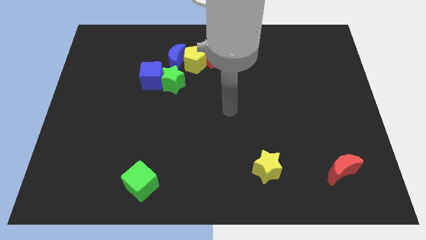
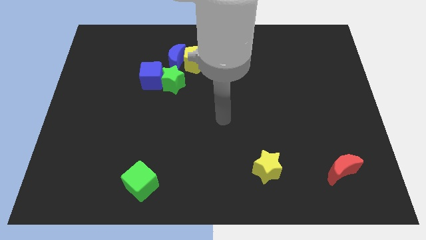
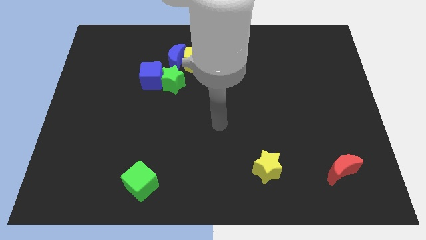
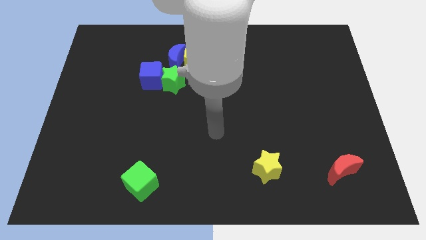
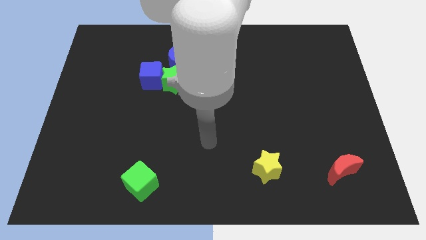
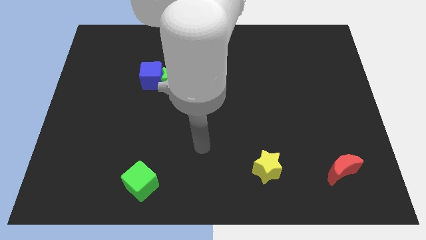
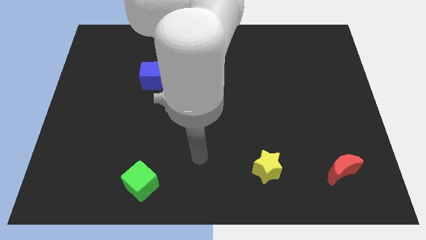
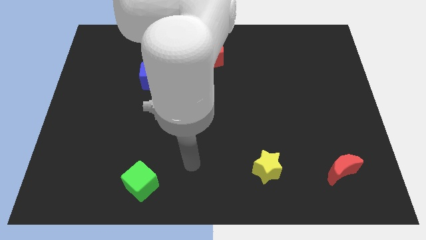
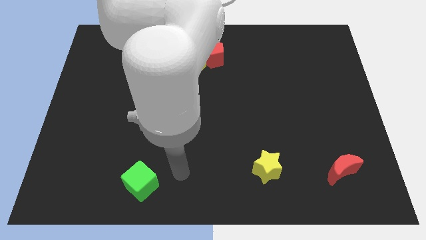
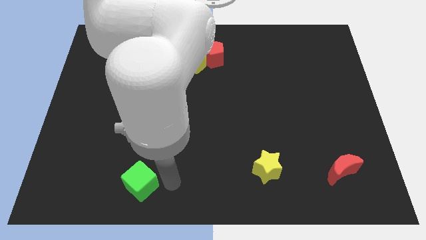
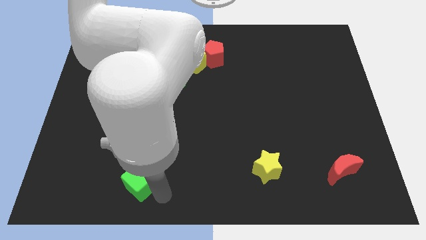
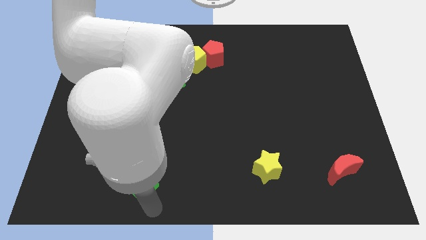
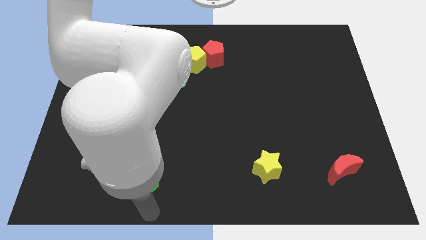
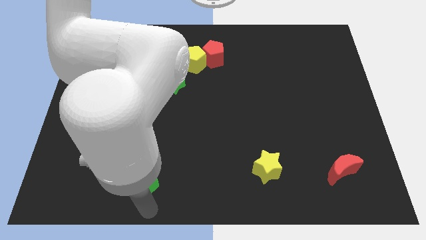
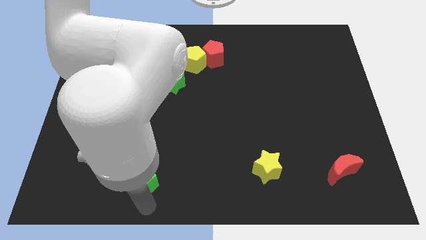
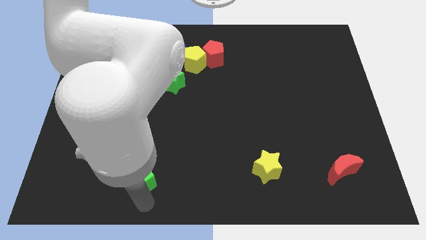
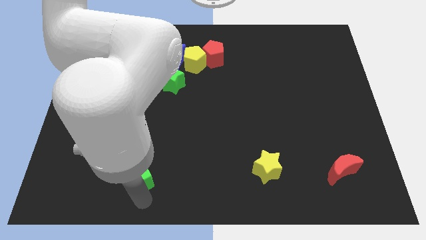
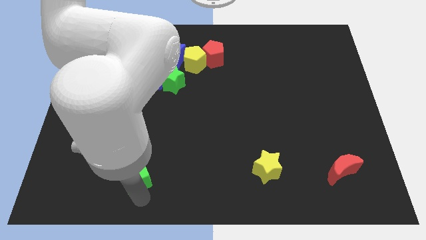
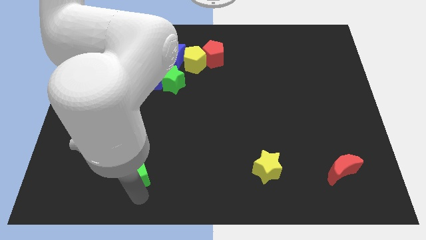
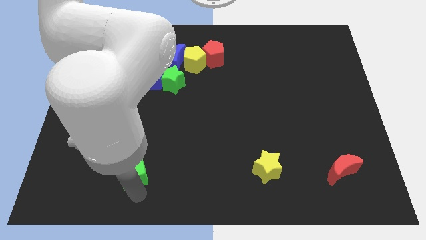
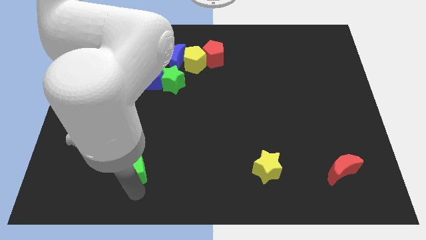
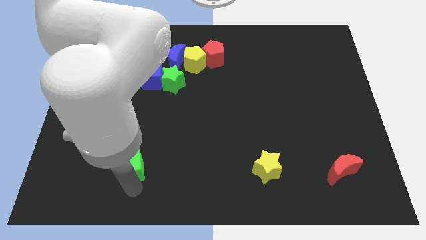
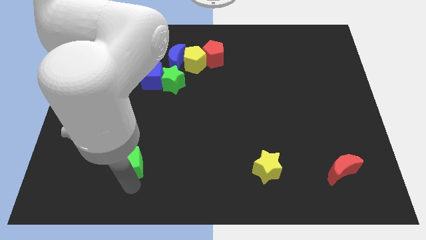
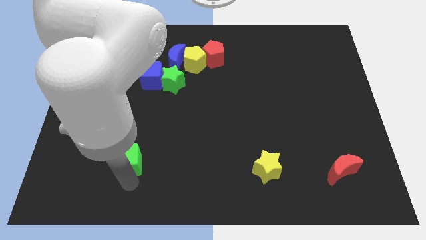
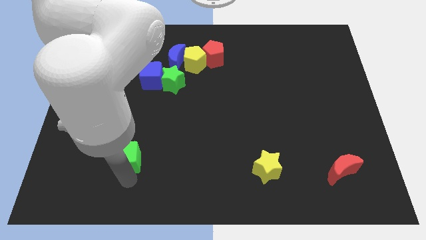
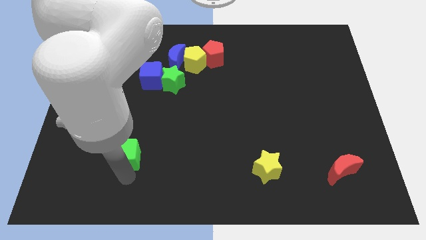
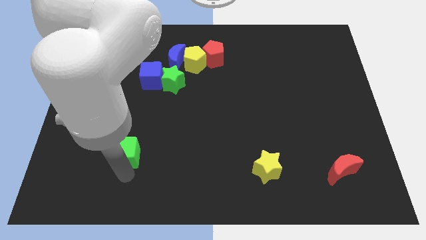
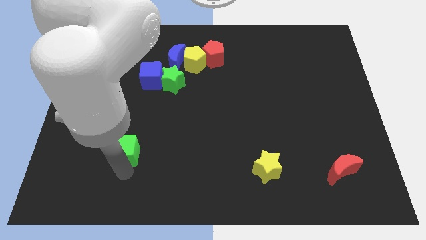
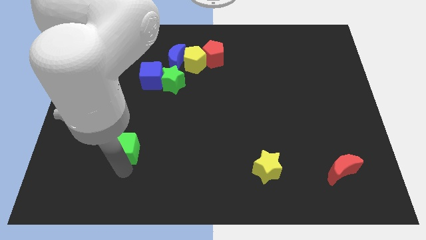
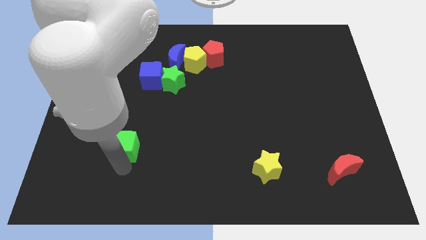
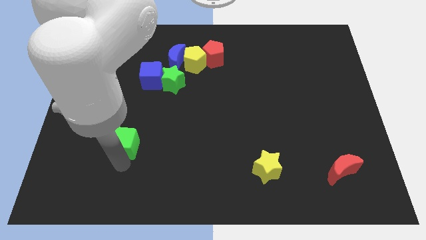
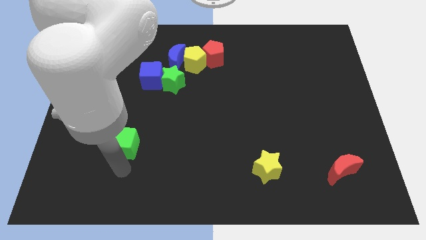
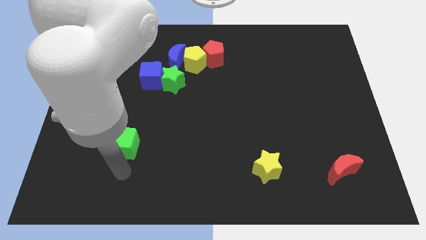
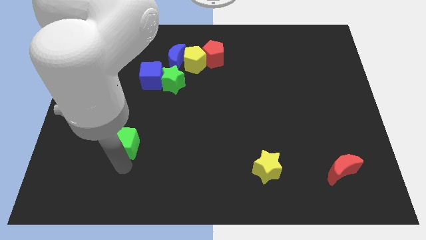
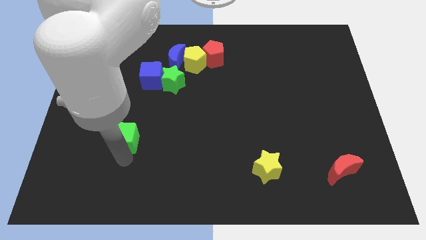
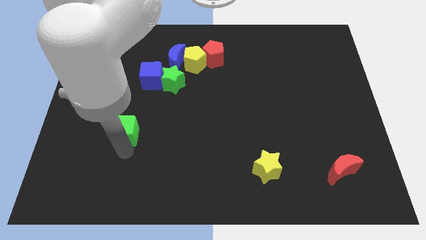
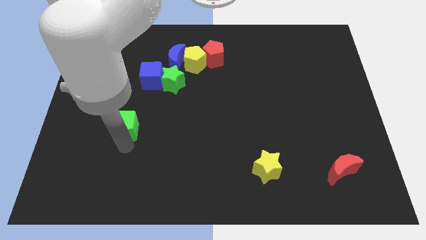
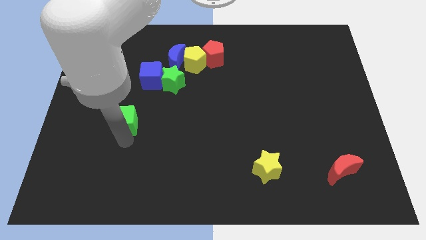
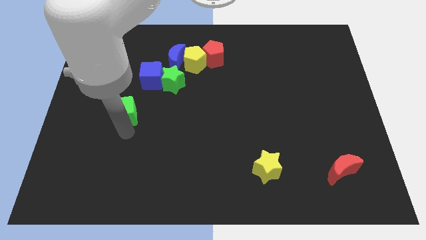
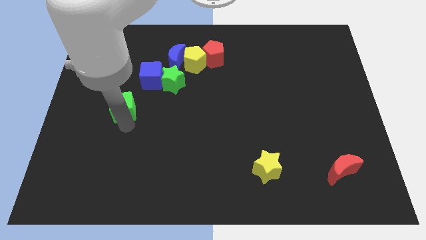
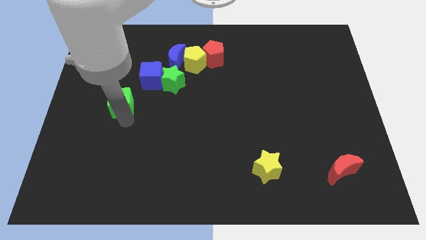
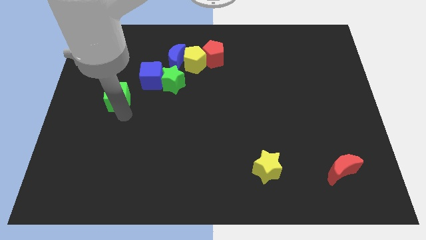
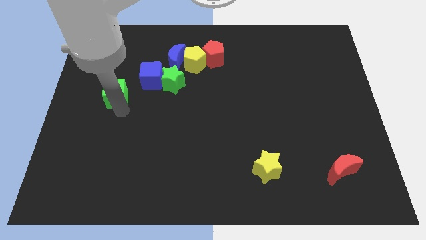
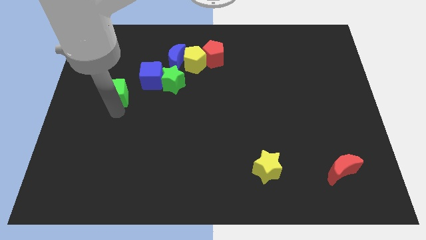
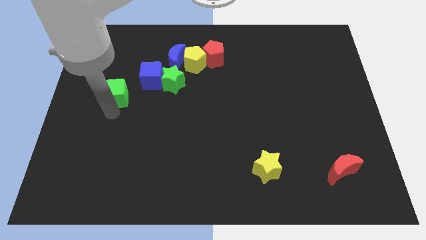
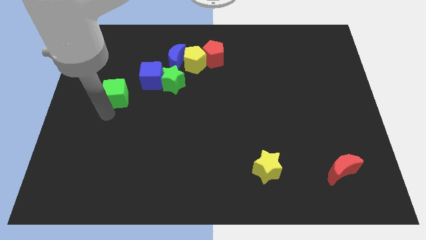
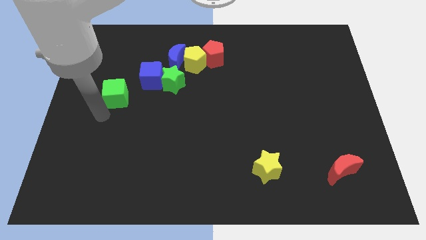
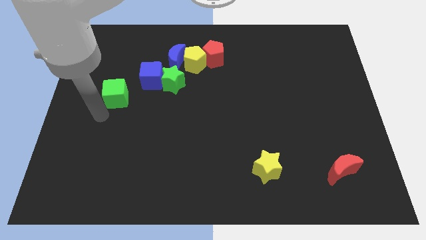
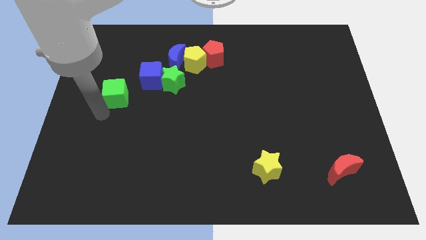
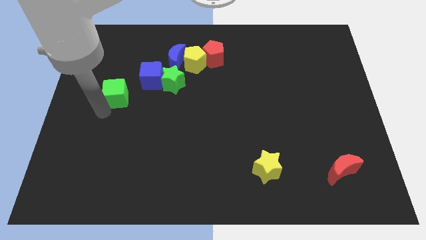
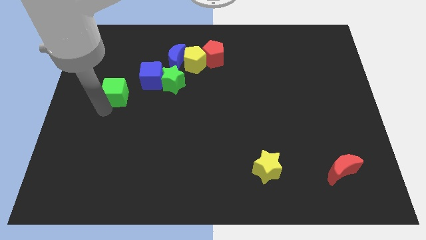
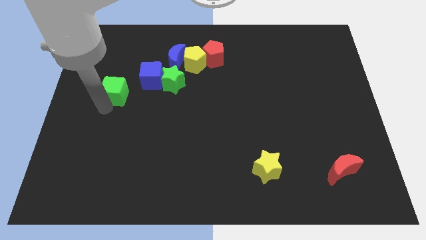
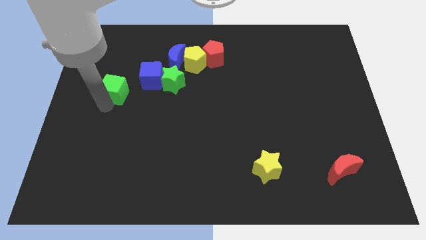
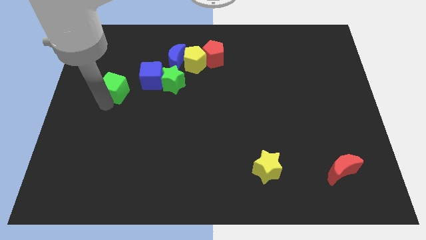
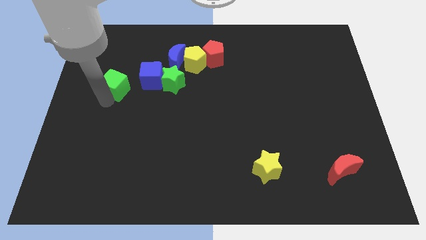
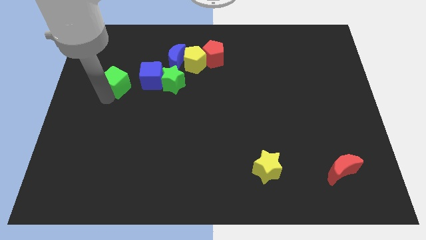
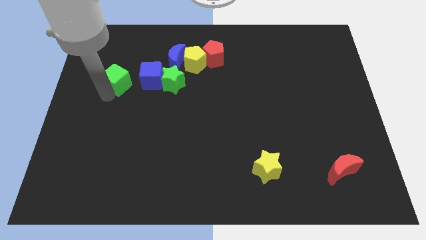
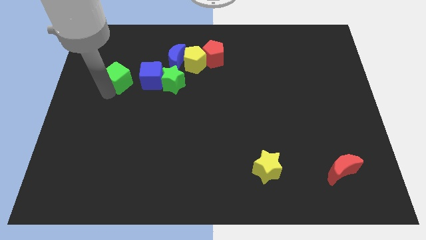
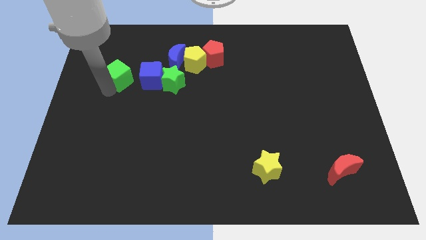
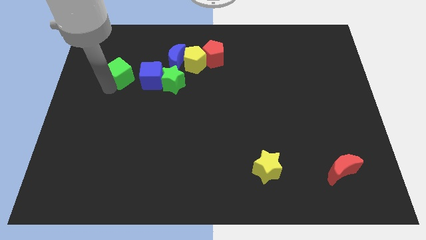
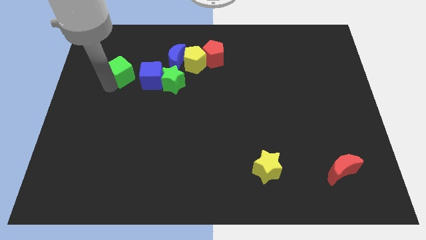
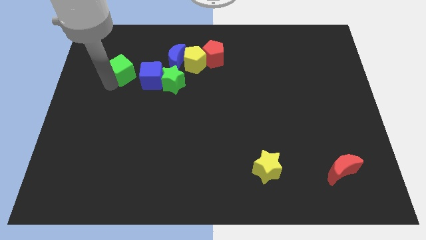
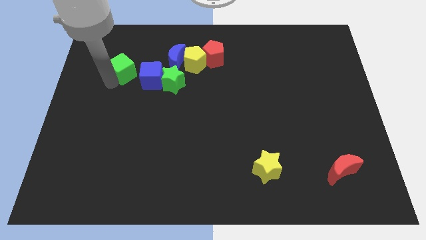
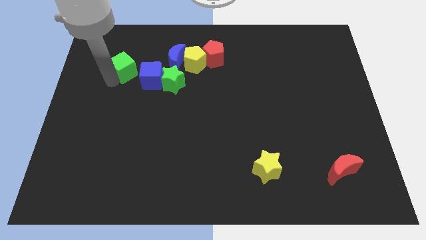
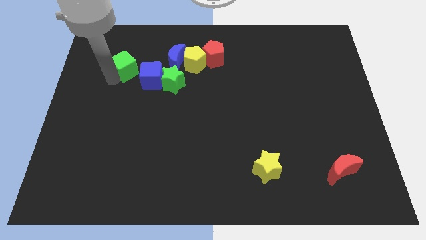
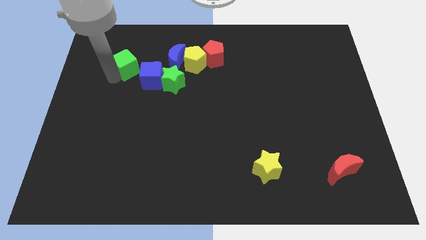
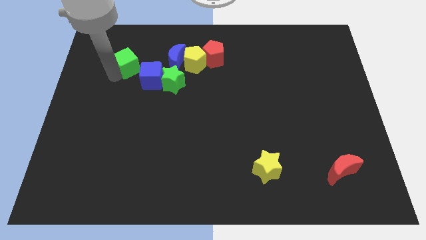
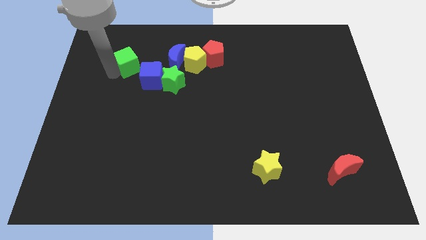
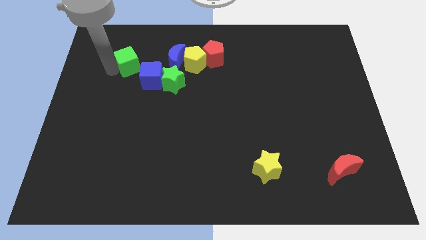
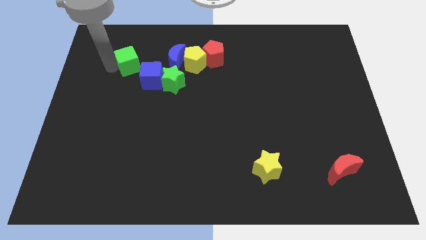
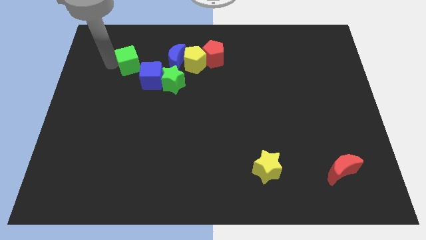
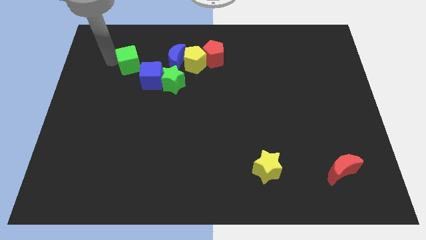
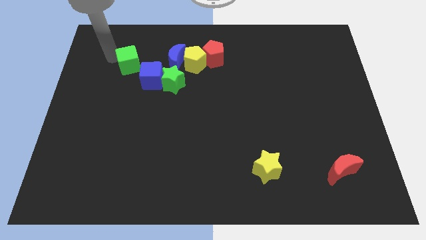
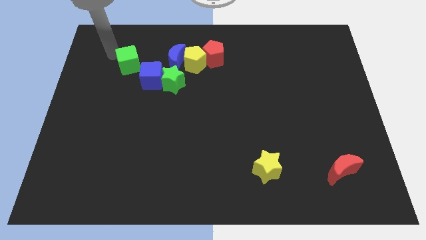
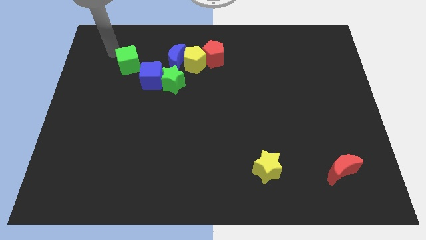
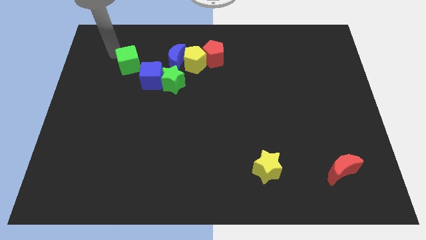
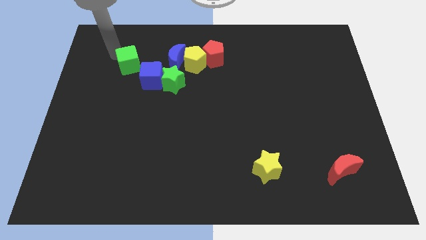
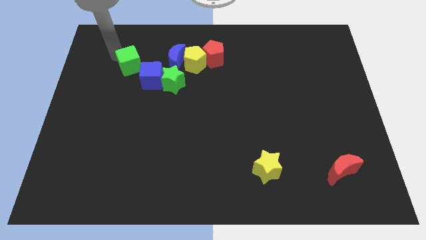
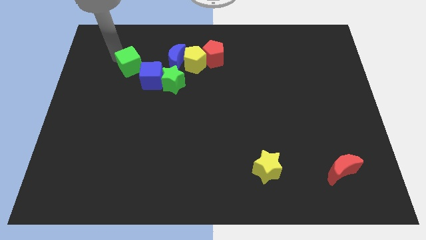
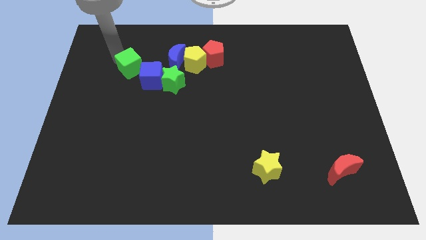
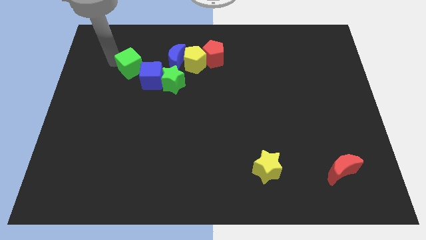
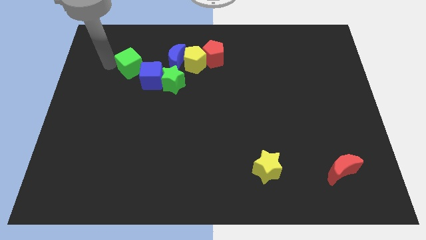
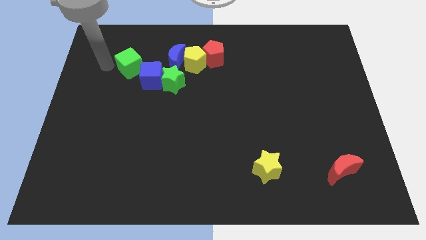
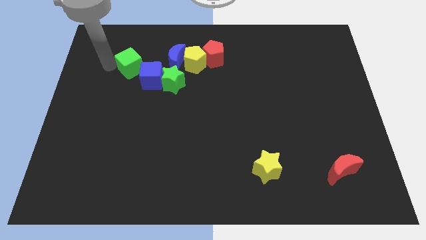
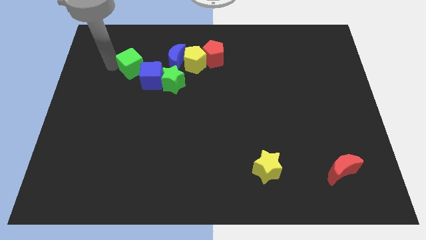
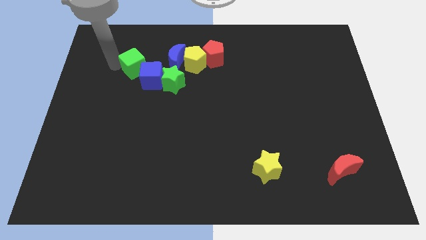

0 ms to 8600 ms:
put the green cube diagonally up and to the left of the green star
